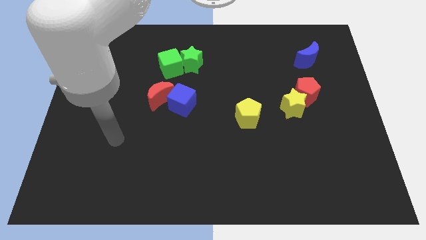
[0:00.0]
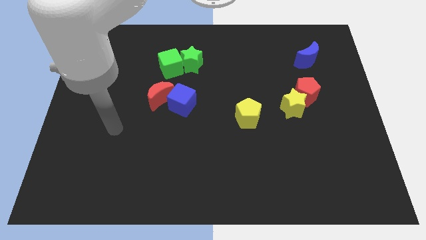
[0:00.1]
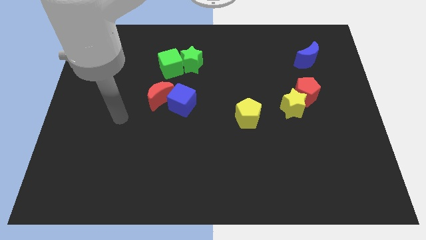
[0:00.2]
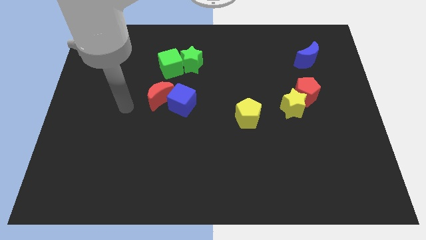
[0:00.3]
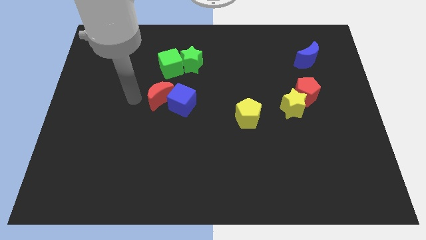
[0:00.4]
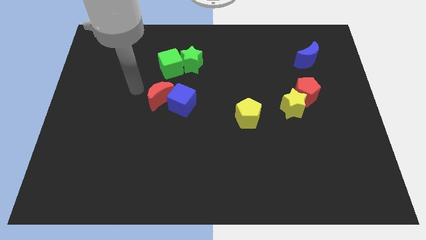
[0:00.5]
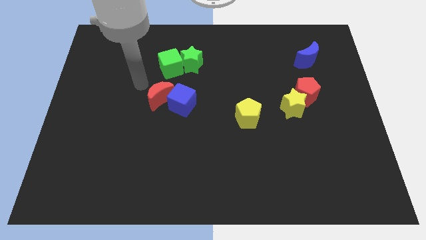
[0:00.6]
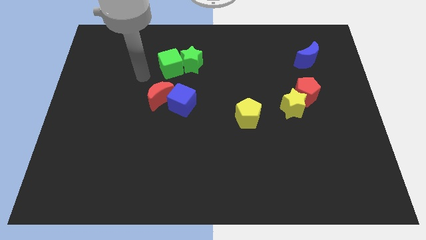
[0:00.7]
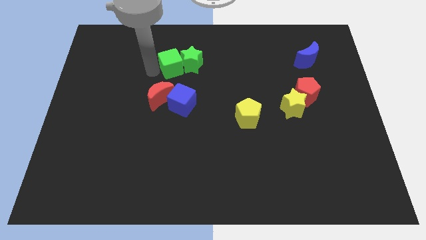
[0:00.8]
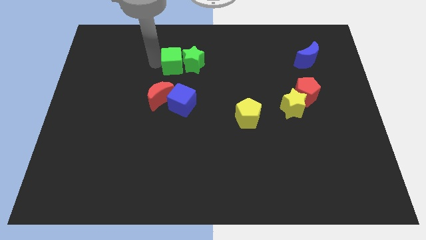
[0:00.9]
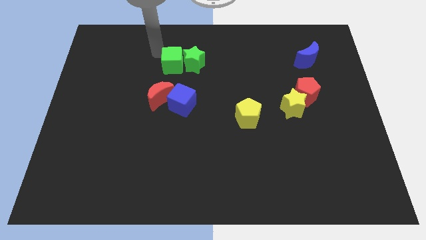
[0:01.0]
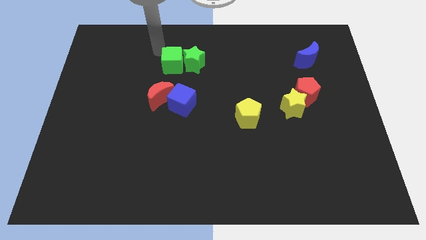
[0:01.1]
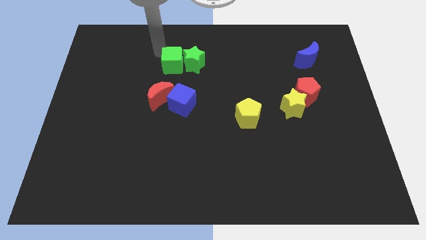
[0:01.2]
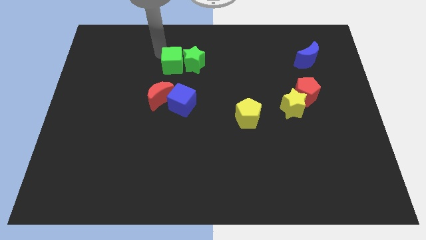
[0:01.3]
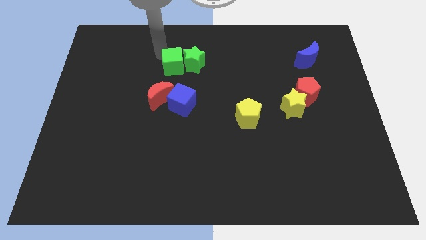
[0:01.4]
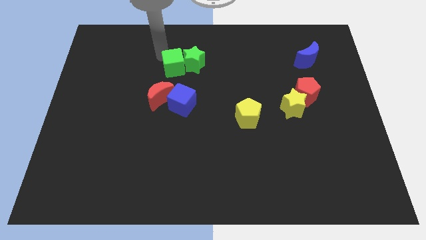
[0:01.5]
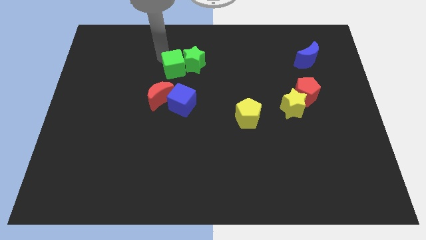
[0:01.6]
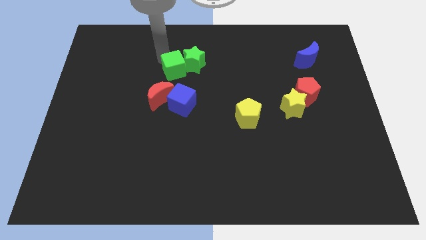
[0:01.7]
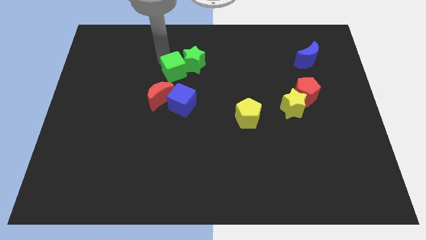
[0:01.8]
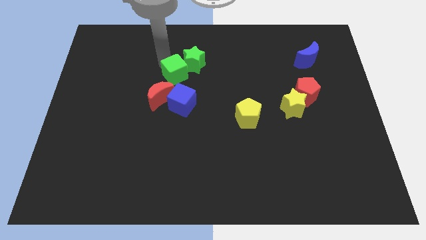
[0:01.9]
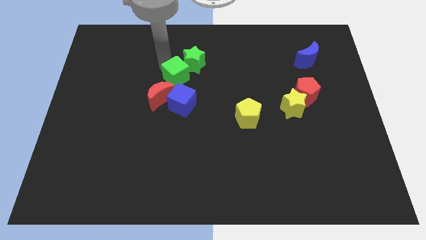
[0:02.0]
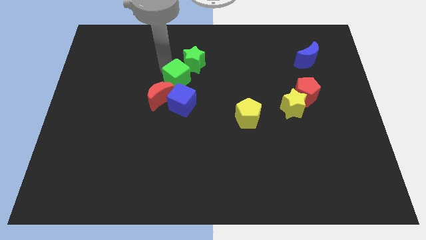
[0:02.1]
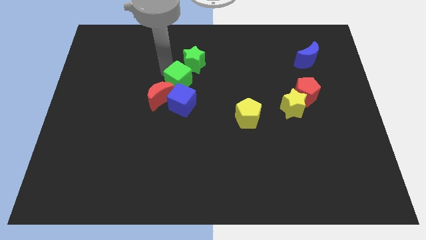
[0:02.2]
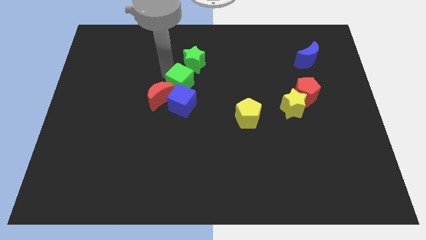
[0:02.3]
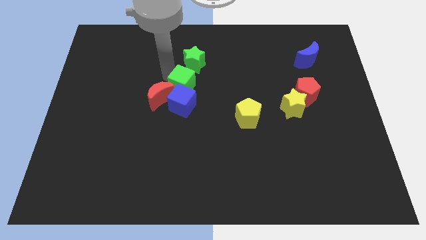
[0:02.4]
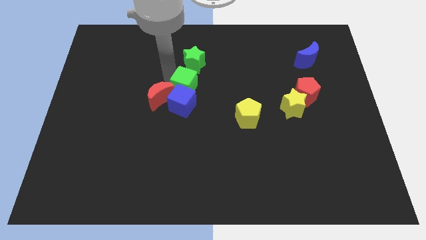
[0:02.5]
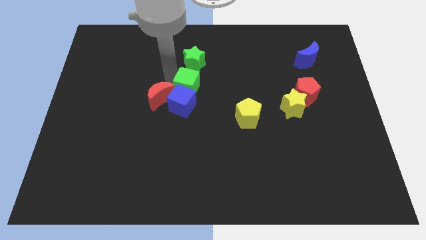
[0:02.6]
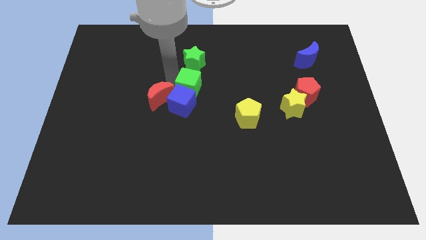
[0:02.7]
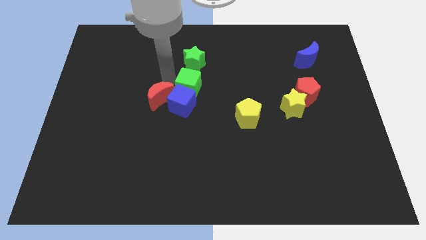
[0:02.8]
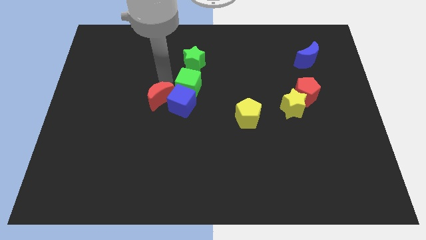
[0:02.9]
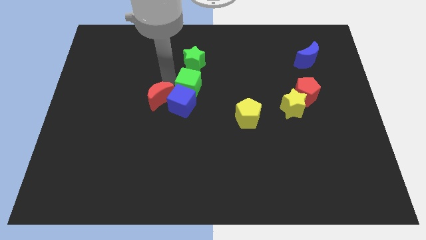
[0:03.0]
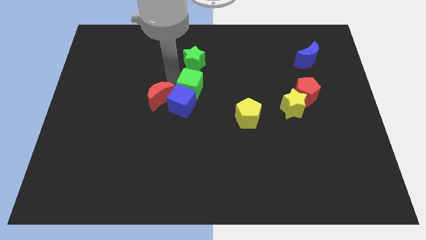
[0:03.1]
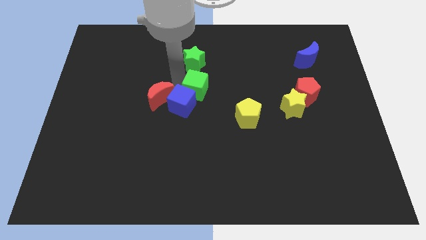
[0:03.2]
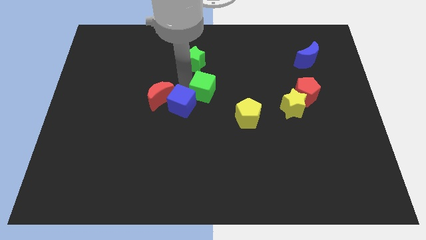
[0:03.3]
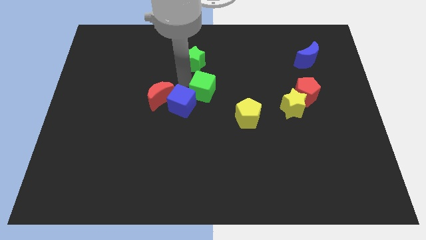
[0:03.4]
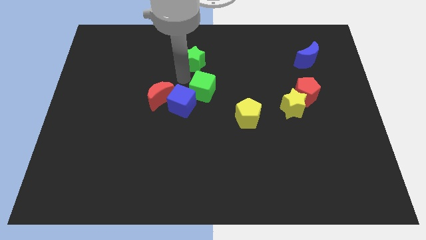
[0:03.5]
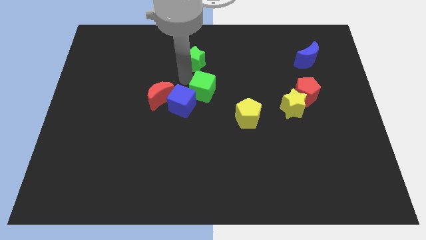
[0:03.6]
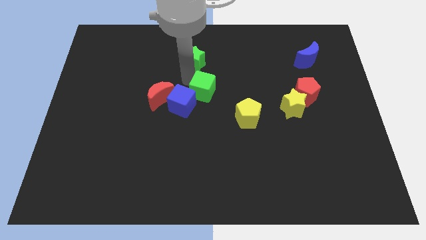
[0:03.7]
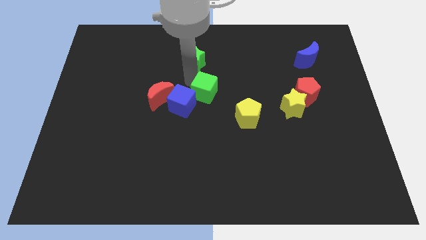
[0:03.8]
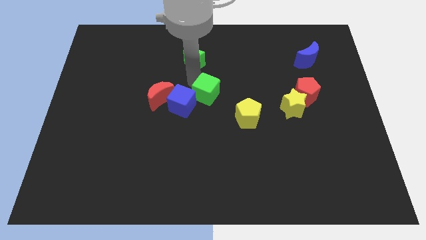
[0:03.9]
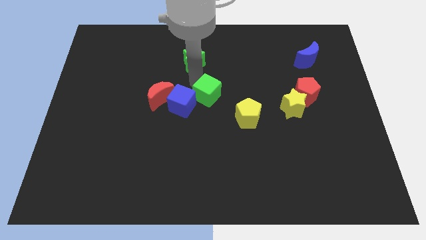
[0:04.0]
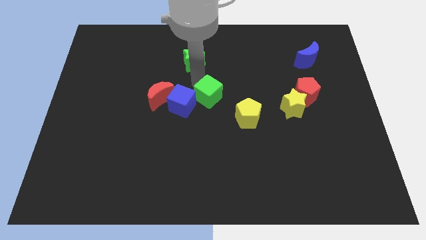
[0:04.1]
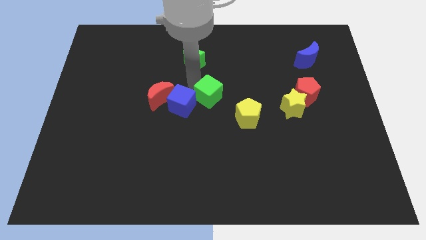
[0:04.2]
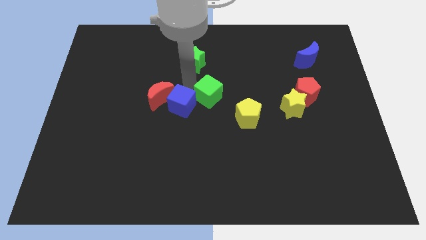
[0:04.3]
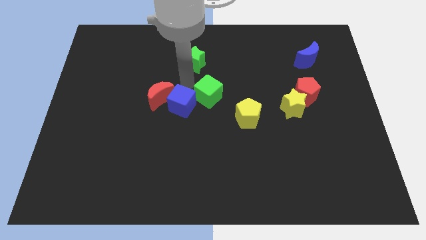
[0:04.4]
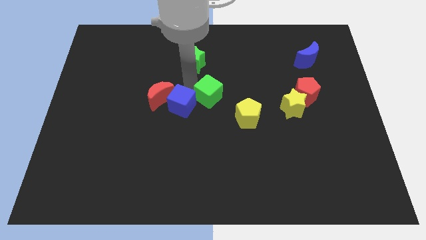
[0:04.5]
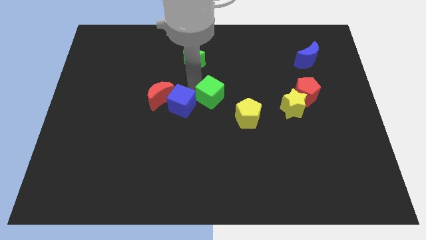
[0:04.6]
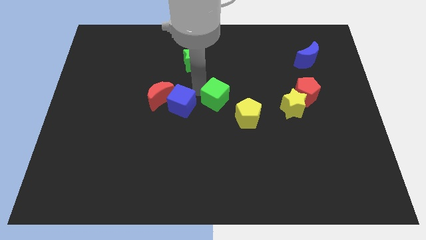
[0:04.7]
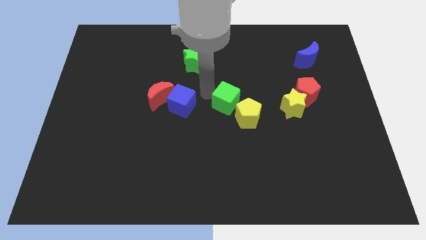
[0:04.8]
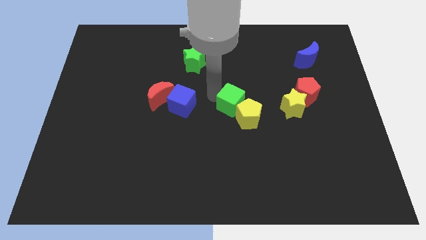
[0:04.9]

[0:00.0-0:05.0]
slide the green cube to the yellow pentagon

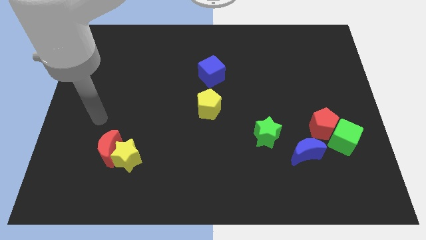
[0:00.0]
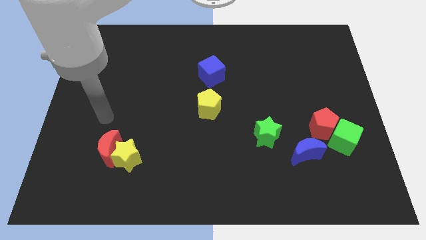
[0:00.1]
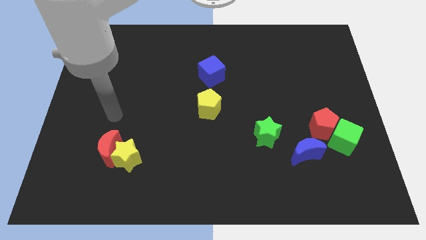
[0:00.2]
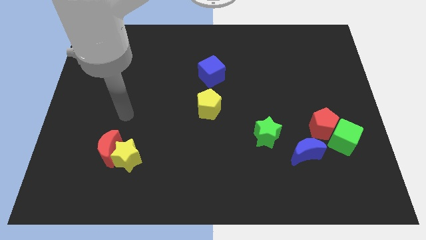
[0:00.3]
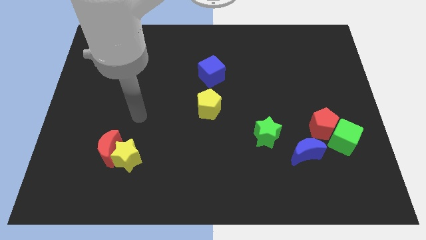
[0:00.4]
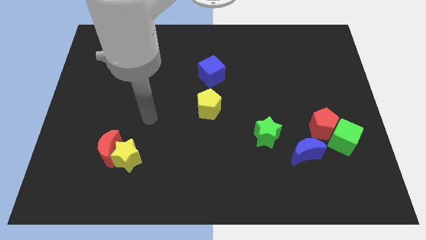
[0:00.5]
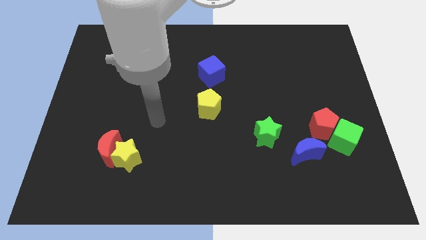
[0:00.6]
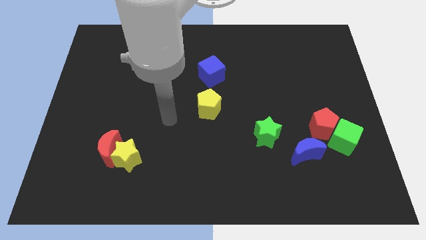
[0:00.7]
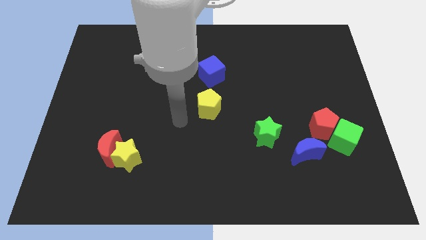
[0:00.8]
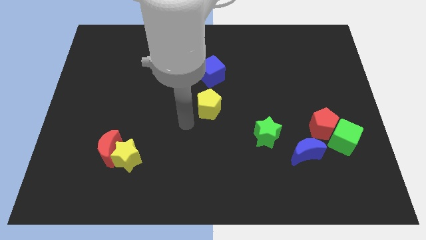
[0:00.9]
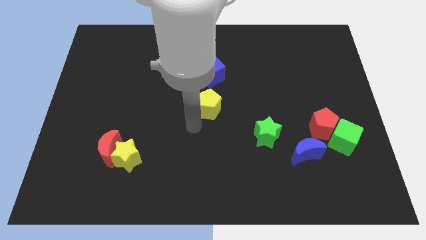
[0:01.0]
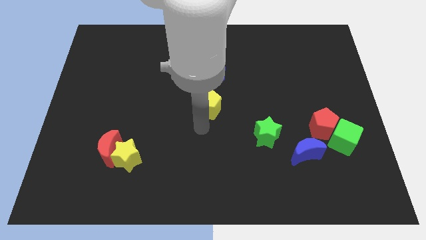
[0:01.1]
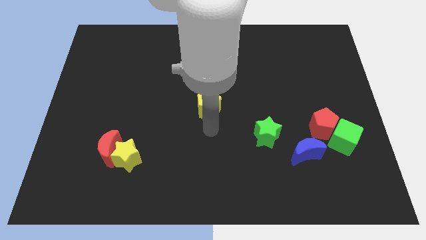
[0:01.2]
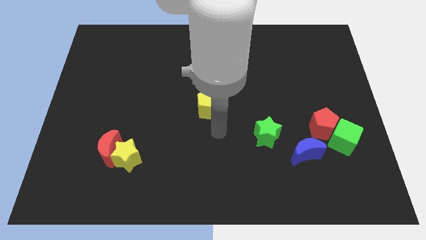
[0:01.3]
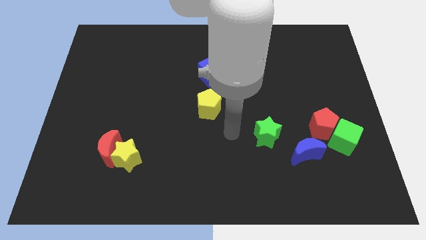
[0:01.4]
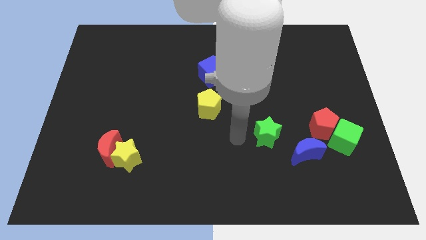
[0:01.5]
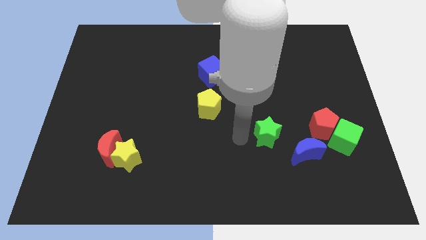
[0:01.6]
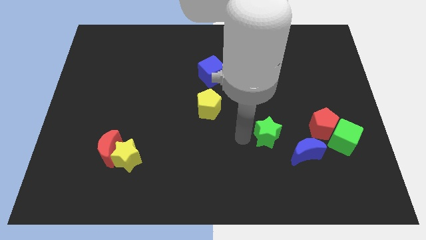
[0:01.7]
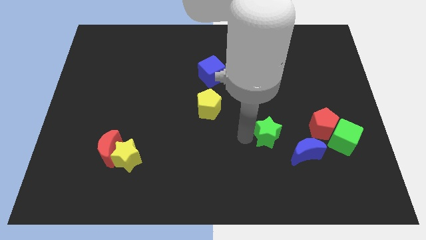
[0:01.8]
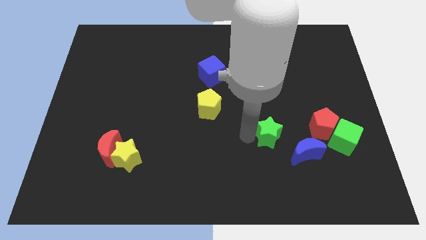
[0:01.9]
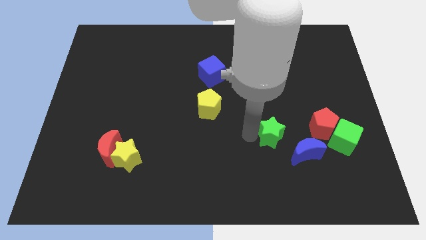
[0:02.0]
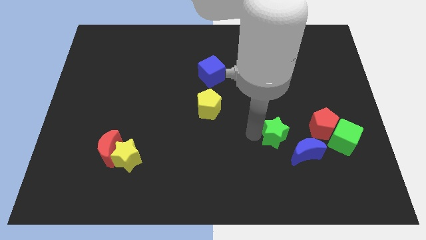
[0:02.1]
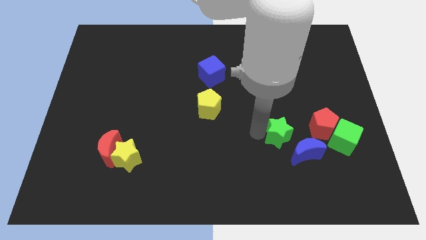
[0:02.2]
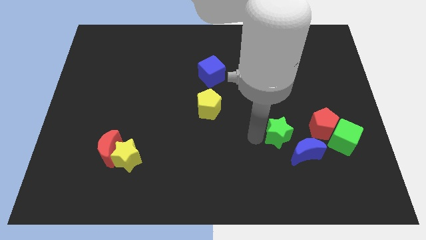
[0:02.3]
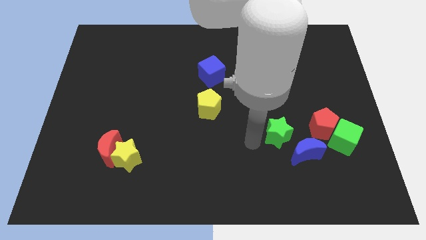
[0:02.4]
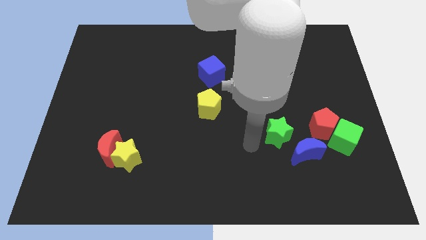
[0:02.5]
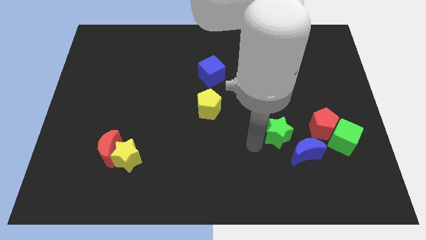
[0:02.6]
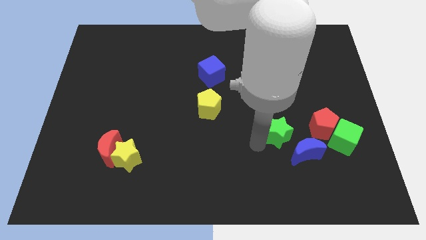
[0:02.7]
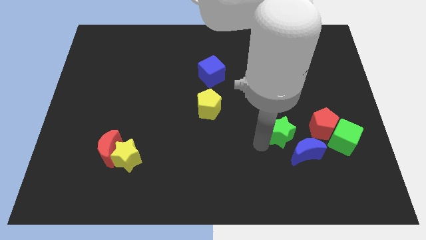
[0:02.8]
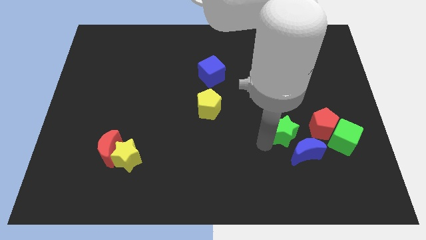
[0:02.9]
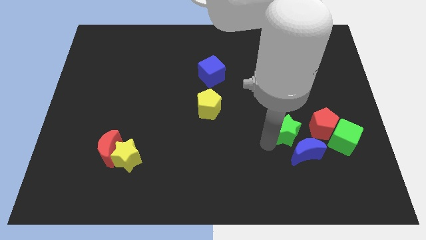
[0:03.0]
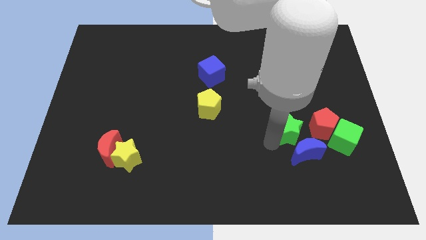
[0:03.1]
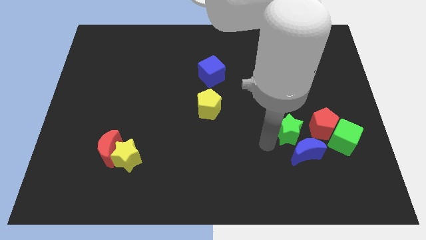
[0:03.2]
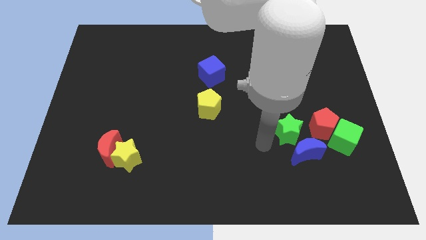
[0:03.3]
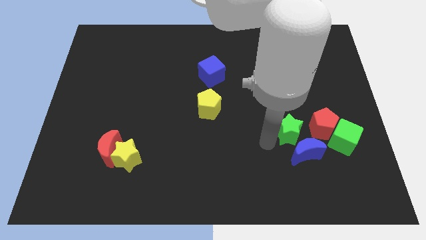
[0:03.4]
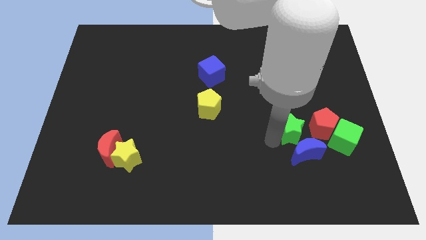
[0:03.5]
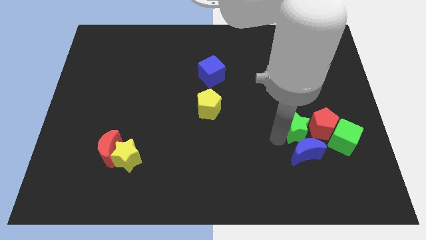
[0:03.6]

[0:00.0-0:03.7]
put the green star towards the red pentagon
